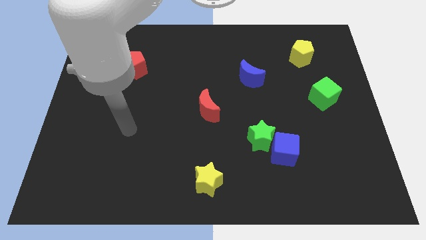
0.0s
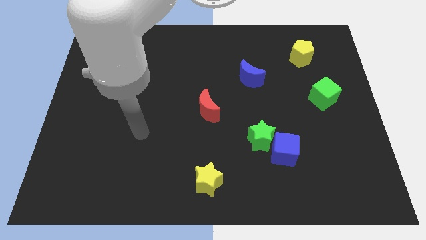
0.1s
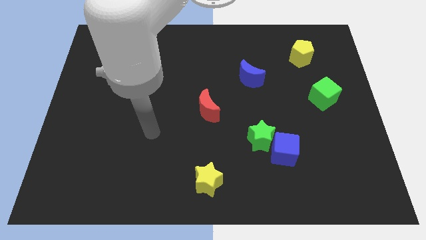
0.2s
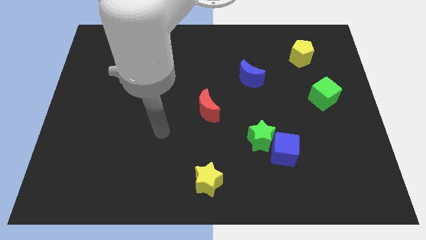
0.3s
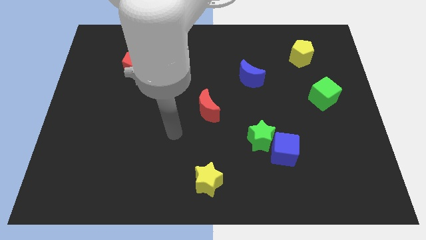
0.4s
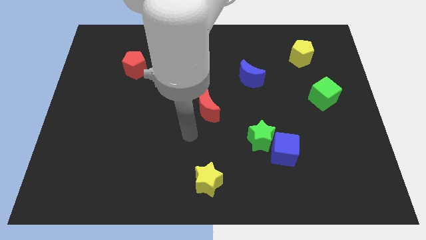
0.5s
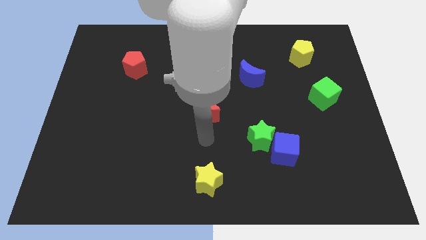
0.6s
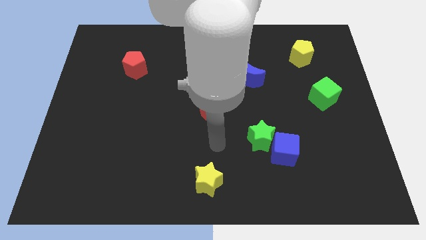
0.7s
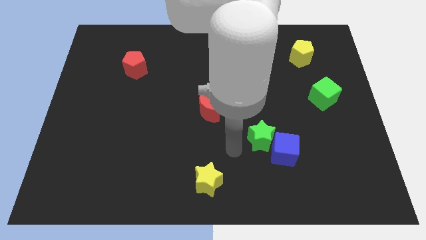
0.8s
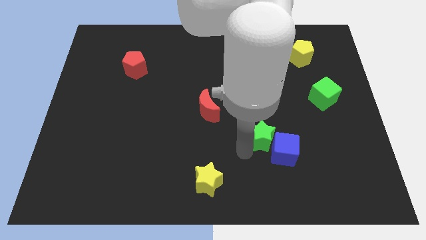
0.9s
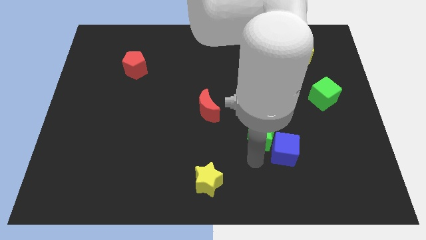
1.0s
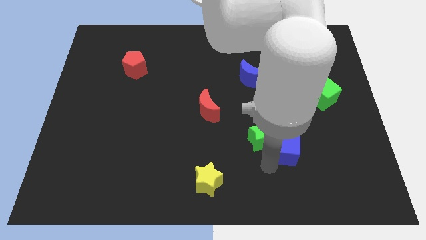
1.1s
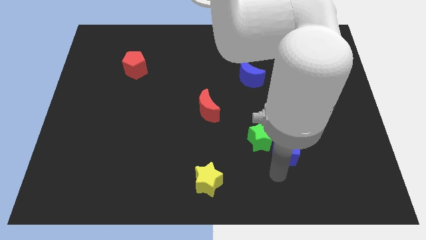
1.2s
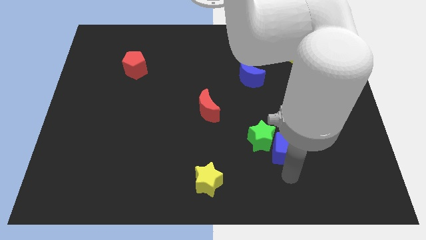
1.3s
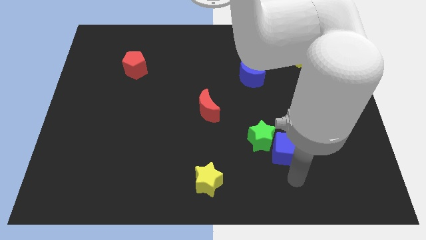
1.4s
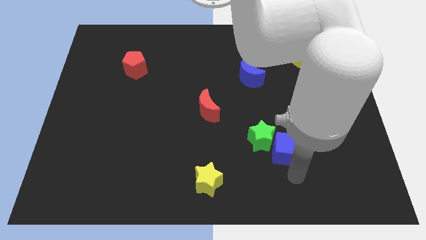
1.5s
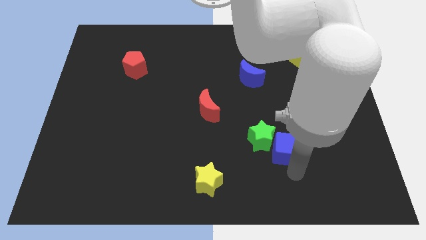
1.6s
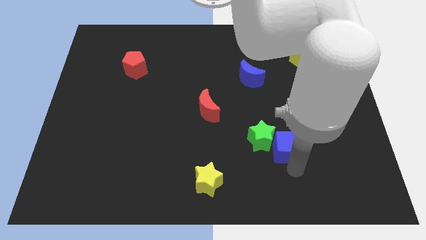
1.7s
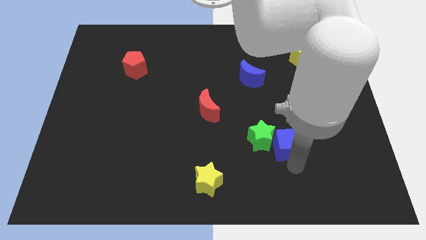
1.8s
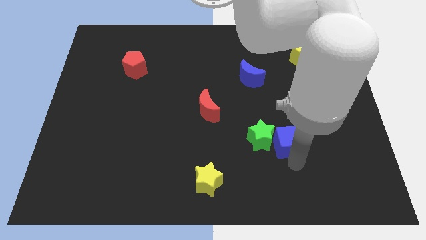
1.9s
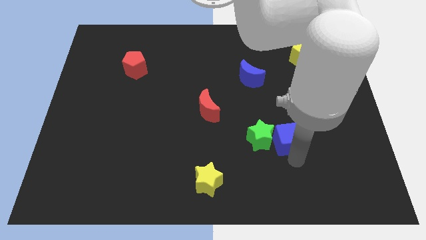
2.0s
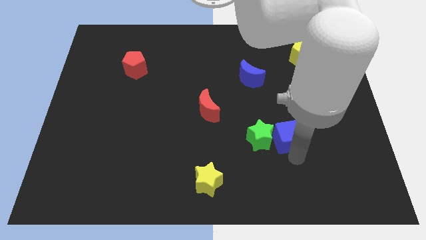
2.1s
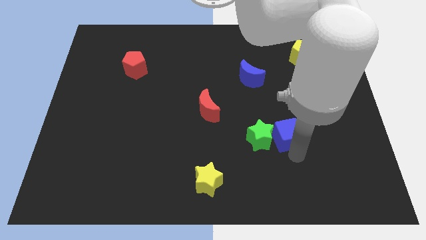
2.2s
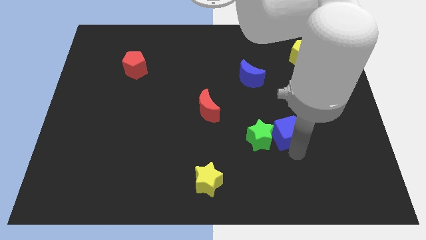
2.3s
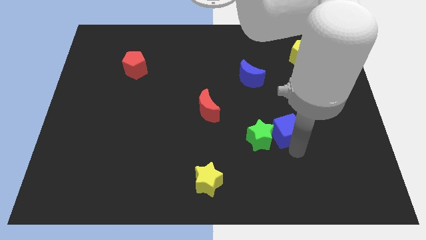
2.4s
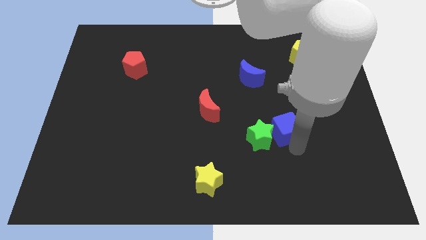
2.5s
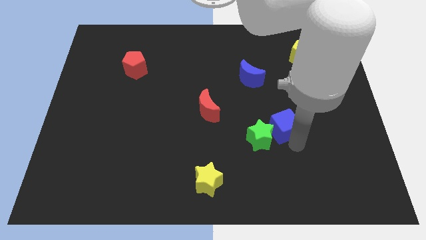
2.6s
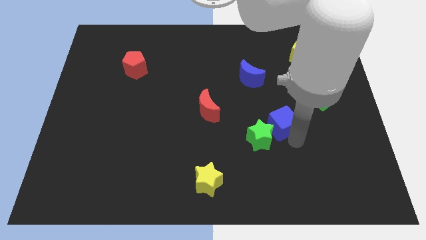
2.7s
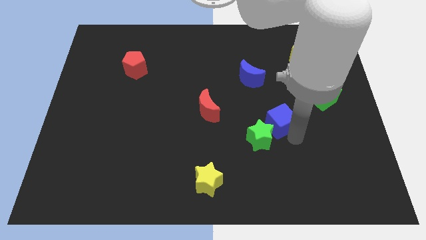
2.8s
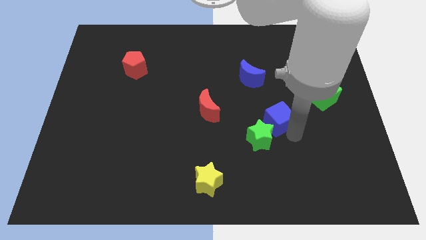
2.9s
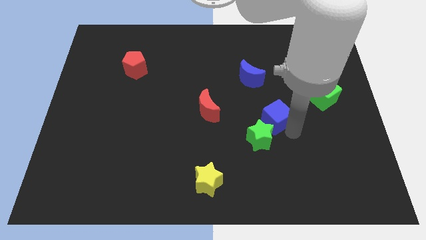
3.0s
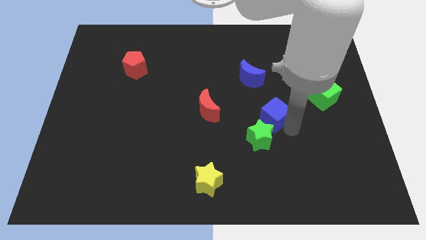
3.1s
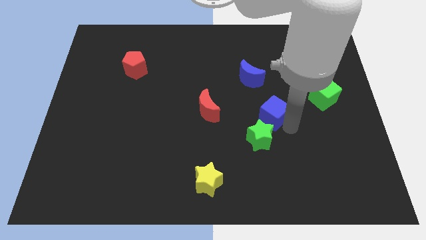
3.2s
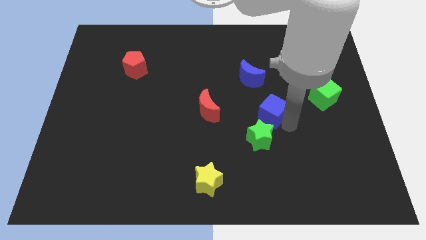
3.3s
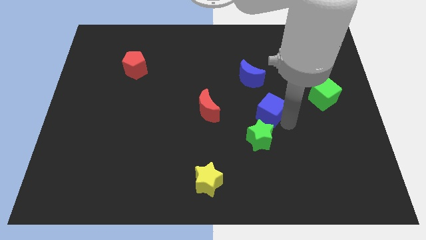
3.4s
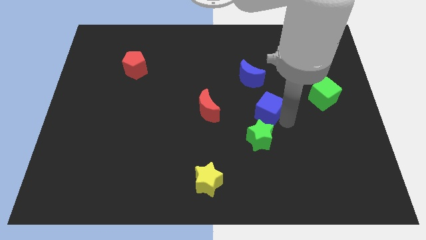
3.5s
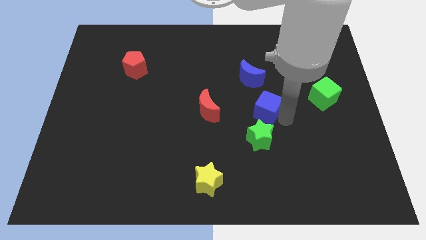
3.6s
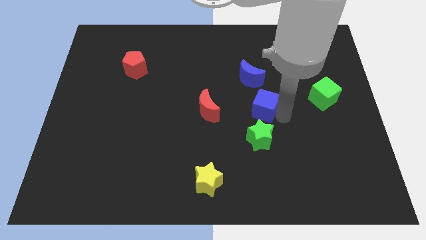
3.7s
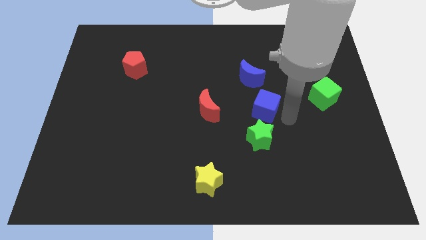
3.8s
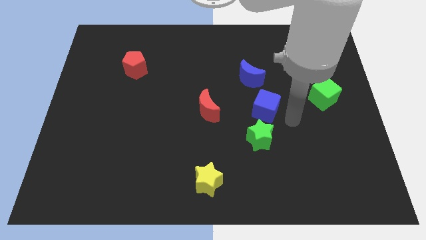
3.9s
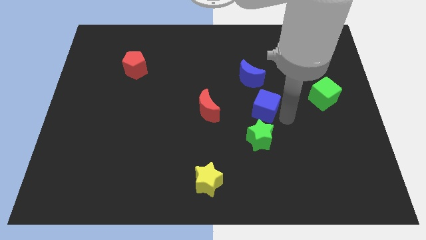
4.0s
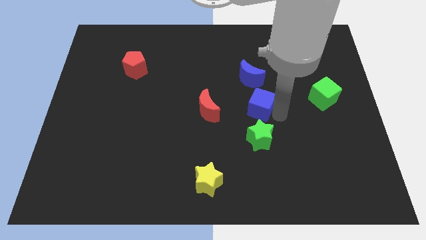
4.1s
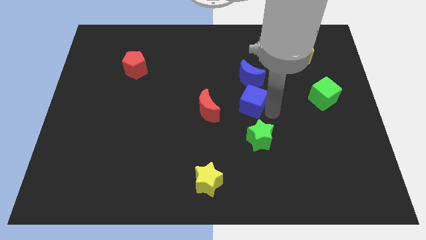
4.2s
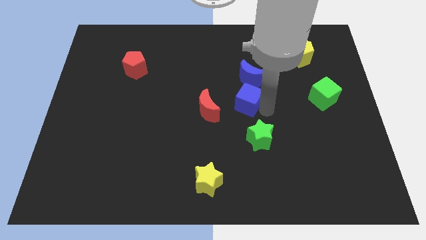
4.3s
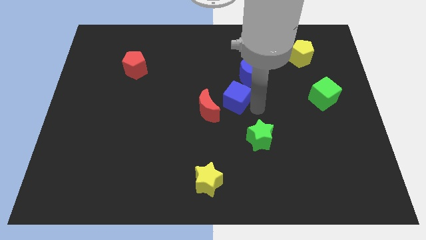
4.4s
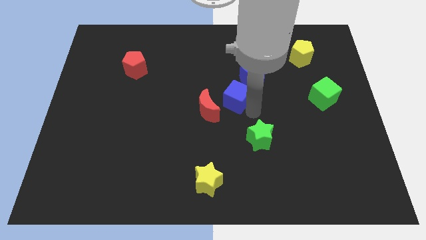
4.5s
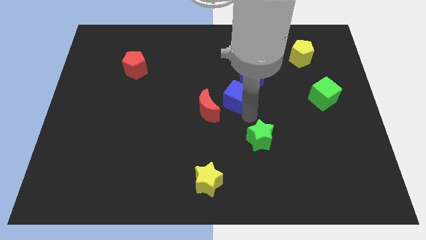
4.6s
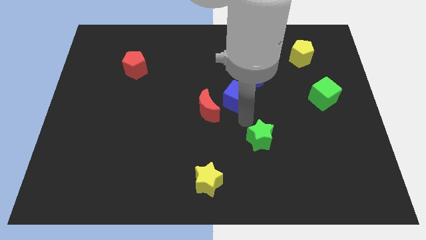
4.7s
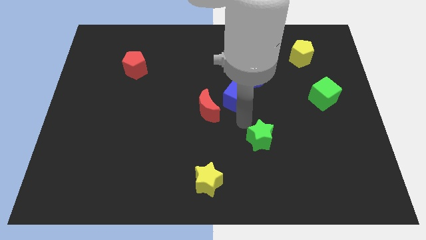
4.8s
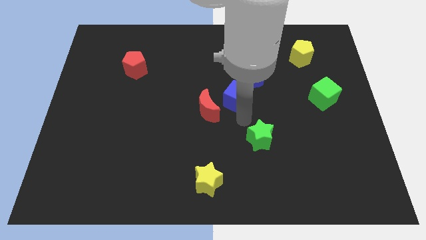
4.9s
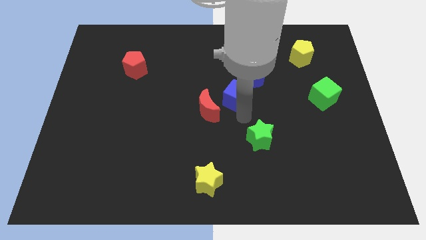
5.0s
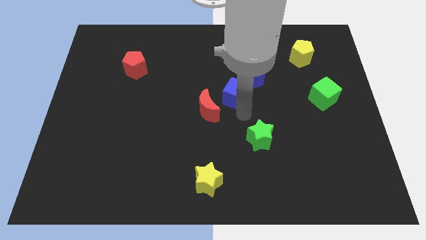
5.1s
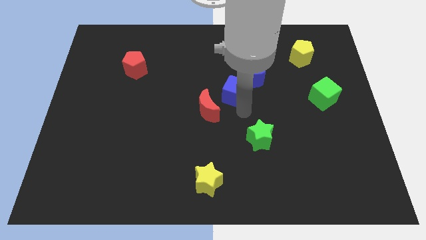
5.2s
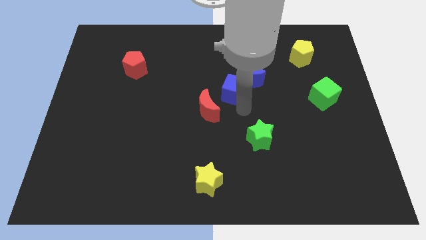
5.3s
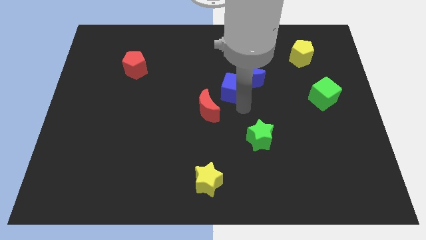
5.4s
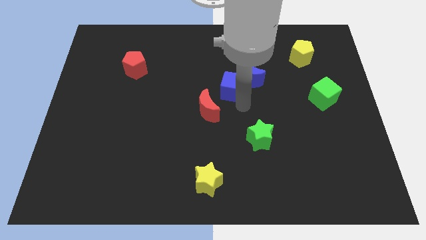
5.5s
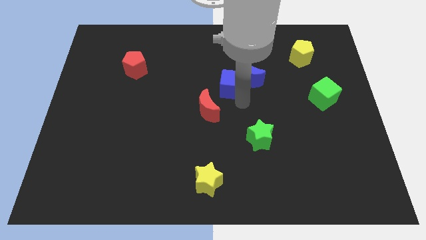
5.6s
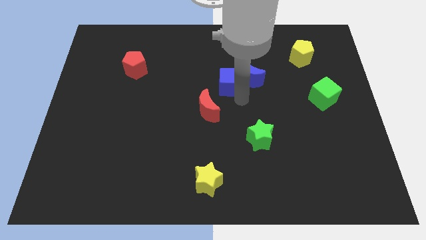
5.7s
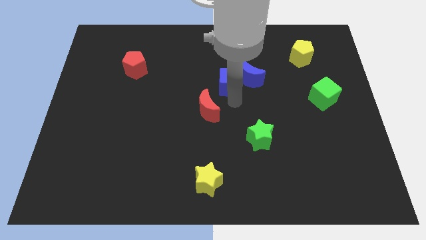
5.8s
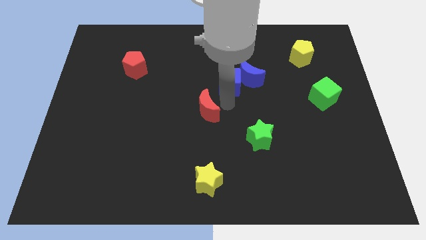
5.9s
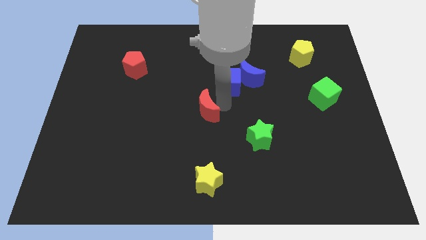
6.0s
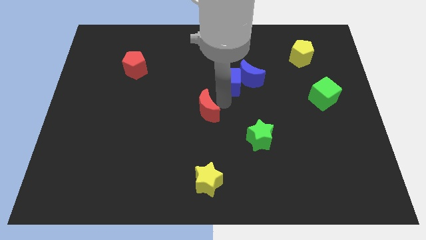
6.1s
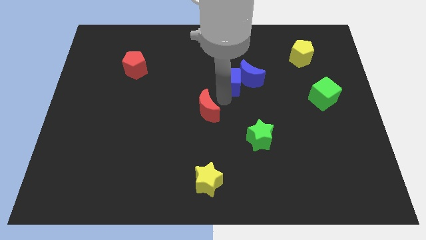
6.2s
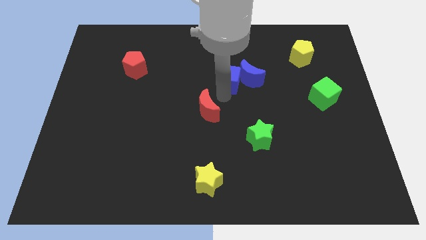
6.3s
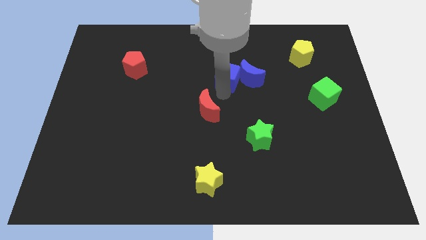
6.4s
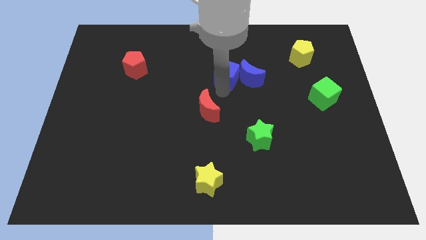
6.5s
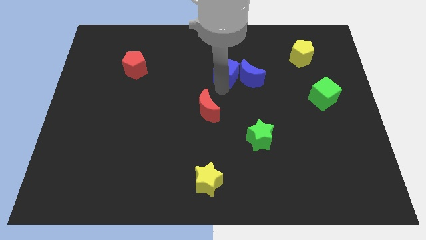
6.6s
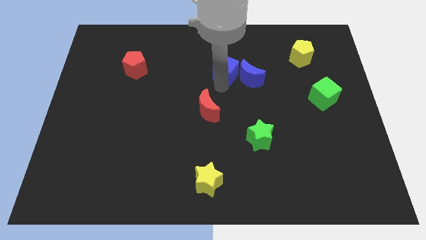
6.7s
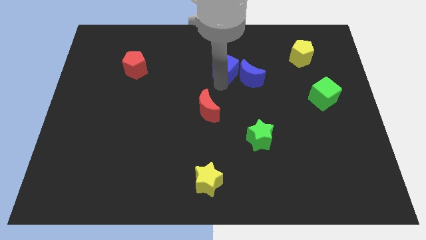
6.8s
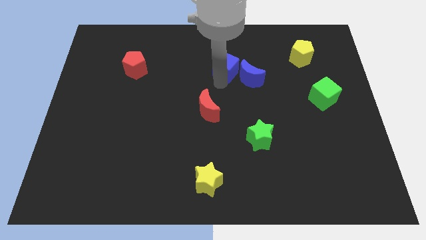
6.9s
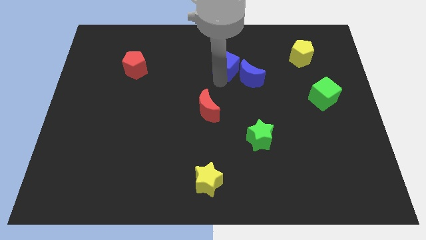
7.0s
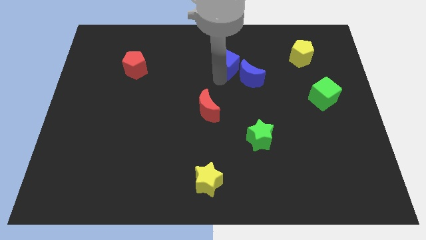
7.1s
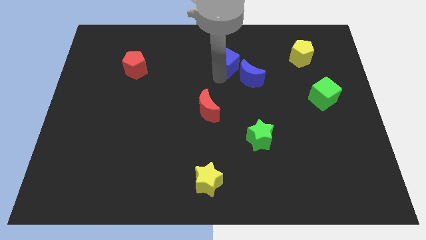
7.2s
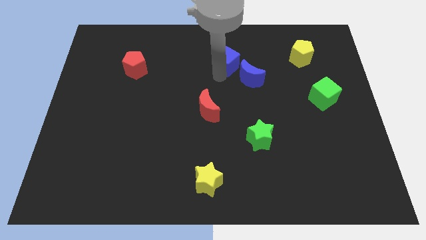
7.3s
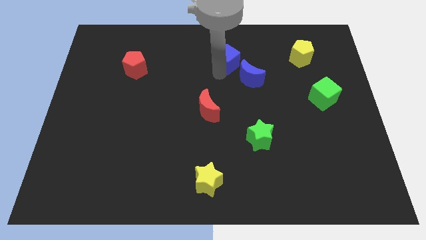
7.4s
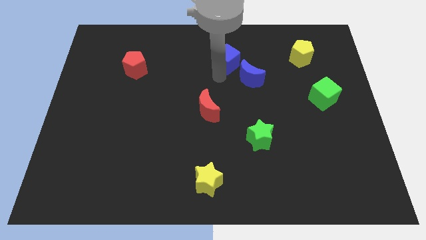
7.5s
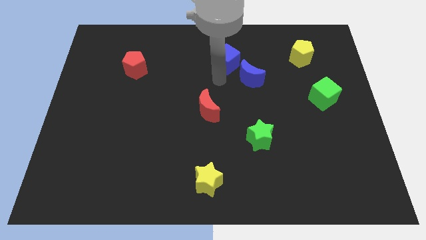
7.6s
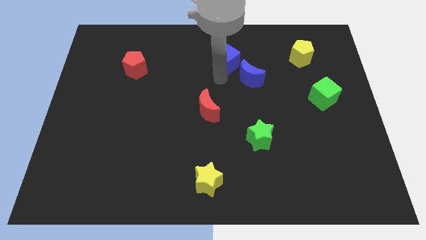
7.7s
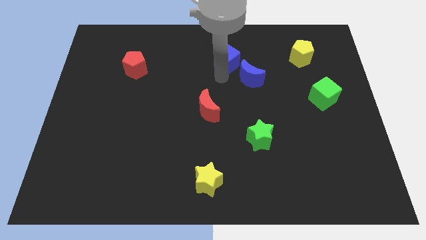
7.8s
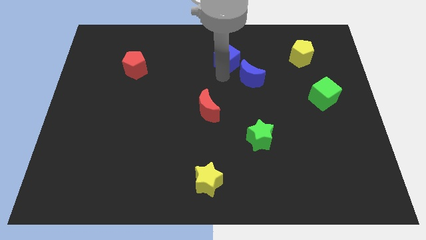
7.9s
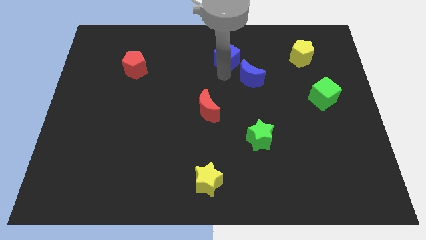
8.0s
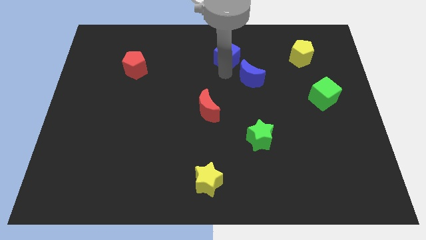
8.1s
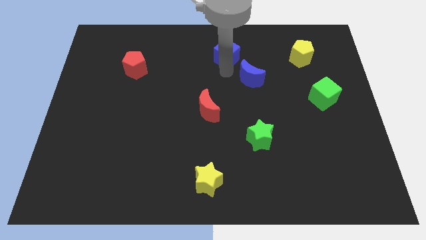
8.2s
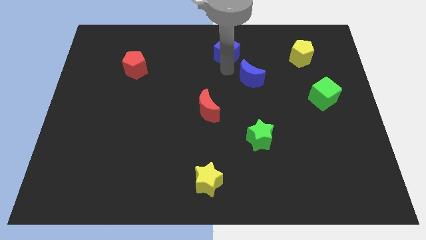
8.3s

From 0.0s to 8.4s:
put the blue cube to the towards your base
